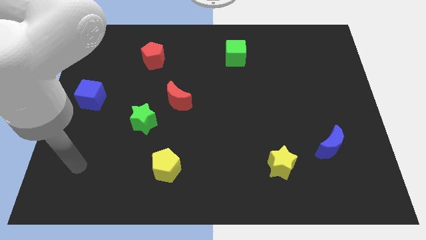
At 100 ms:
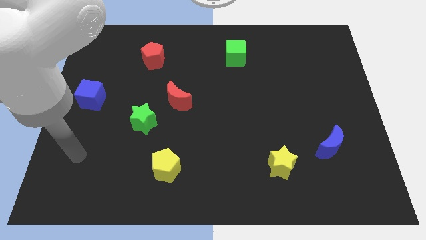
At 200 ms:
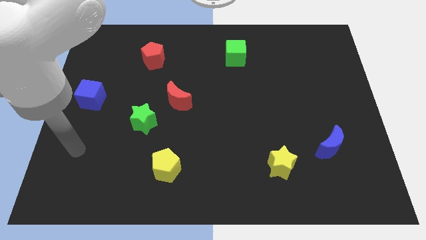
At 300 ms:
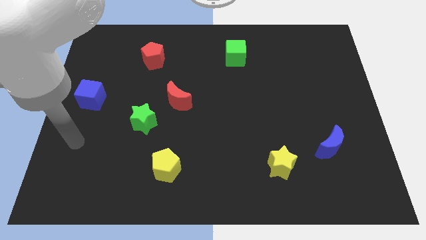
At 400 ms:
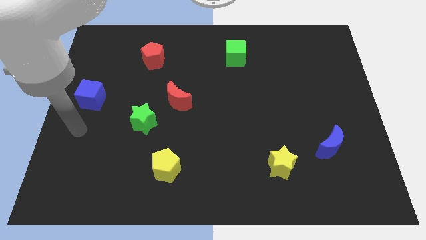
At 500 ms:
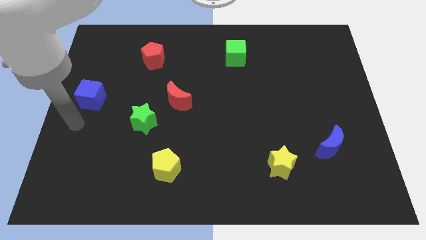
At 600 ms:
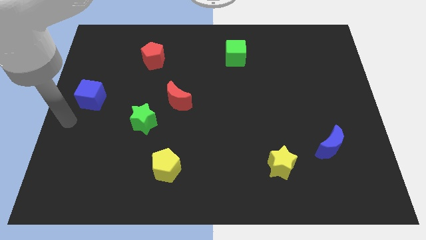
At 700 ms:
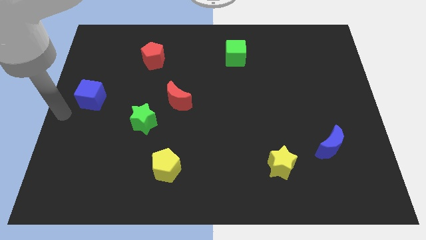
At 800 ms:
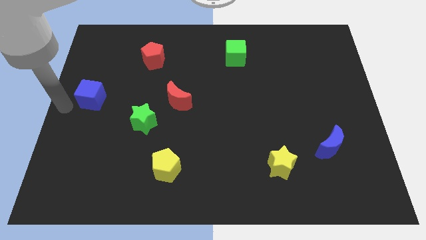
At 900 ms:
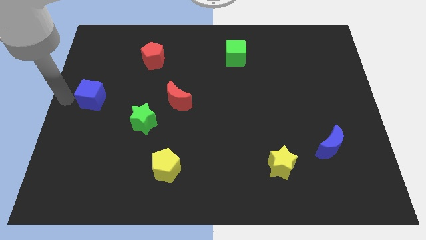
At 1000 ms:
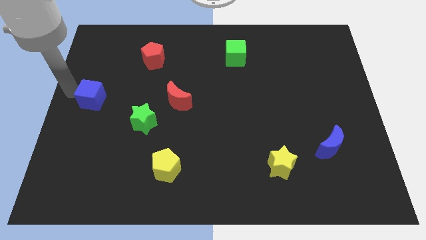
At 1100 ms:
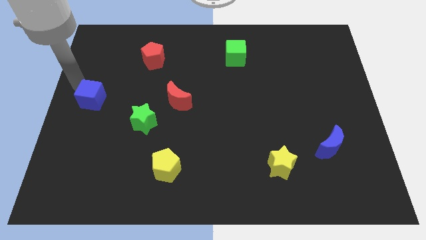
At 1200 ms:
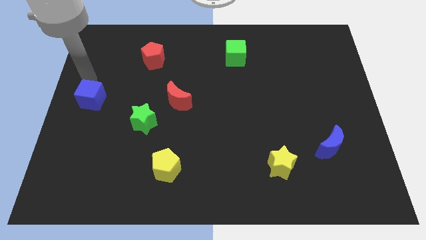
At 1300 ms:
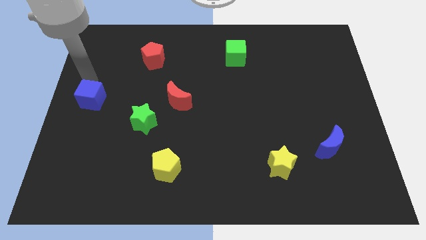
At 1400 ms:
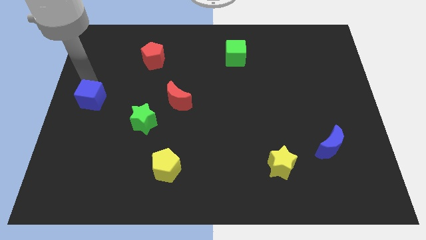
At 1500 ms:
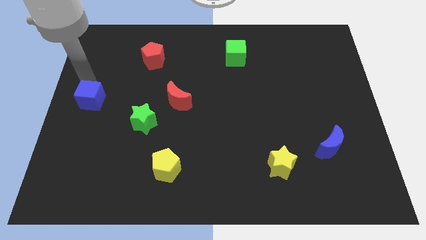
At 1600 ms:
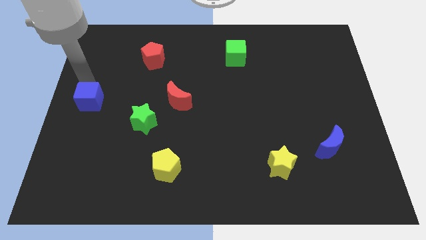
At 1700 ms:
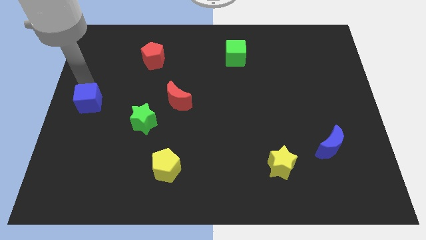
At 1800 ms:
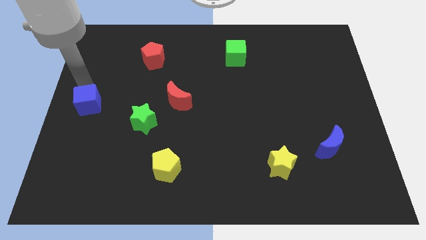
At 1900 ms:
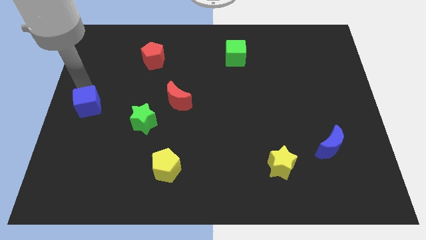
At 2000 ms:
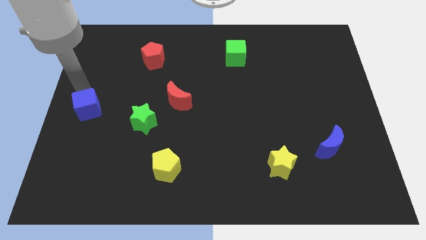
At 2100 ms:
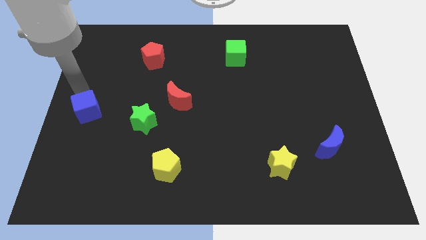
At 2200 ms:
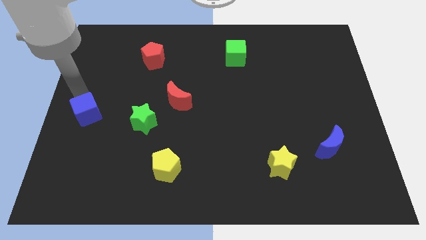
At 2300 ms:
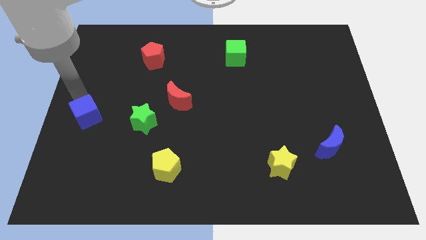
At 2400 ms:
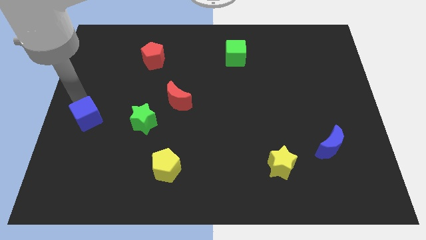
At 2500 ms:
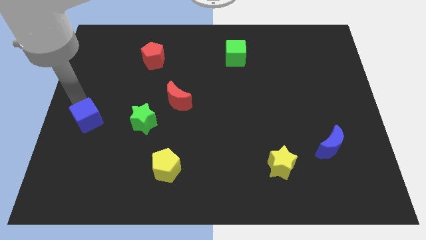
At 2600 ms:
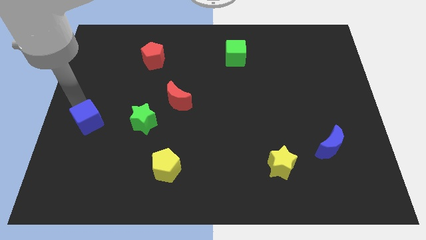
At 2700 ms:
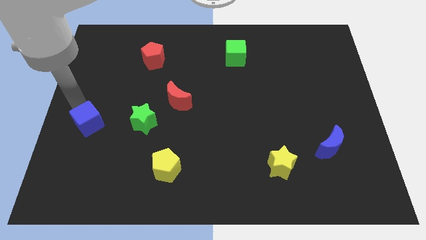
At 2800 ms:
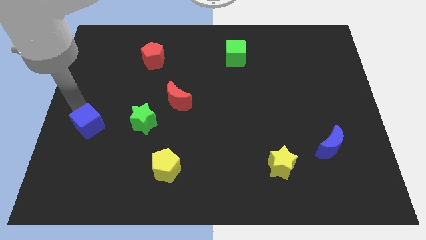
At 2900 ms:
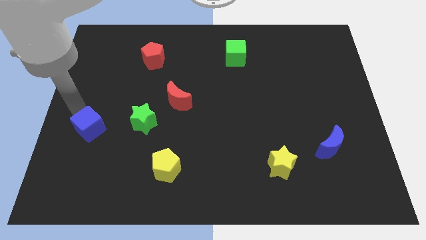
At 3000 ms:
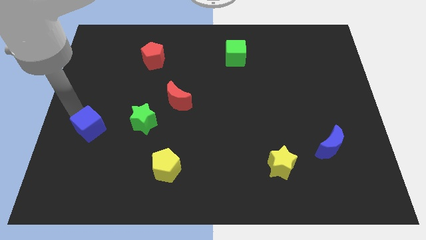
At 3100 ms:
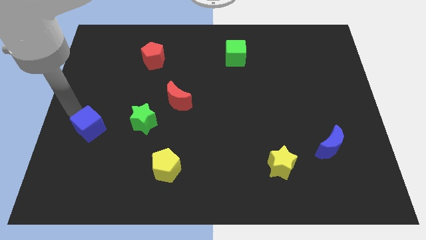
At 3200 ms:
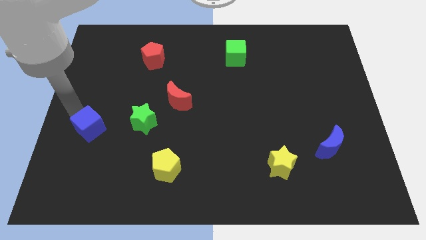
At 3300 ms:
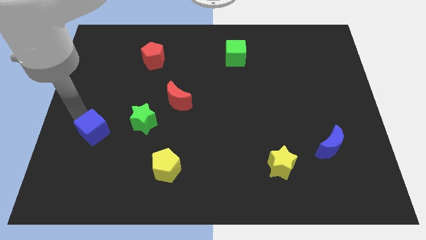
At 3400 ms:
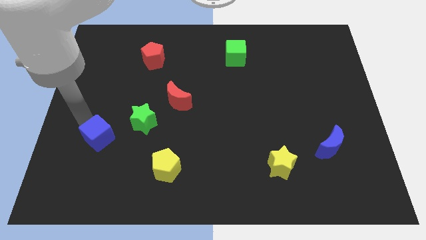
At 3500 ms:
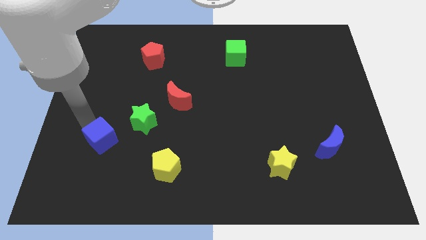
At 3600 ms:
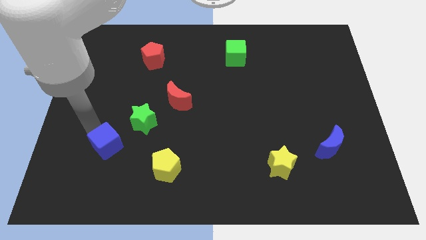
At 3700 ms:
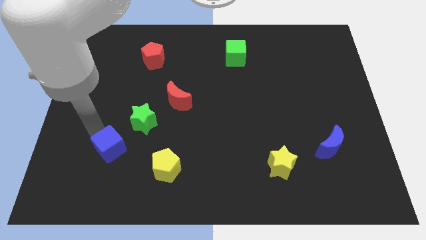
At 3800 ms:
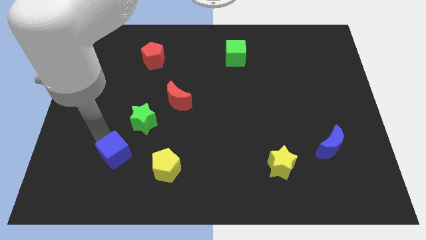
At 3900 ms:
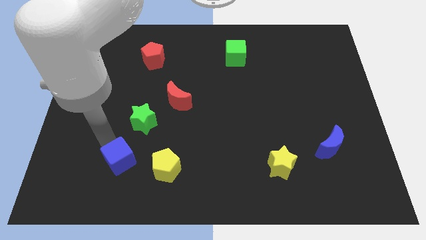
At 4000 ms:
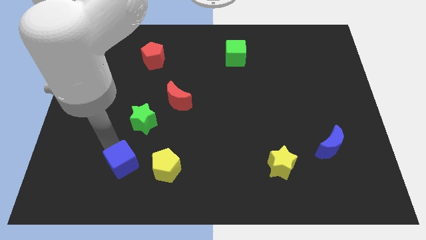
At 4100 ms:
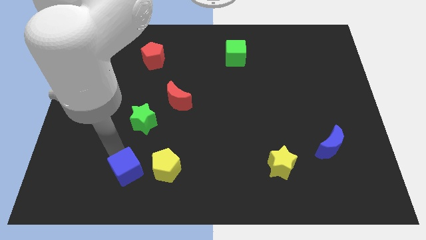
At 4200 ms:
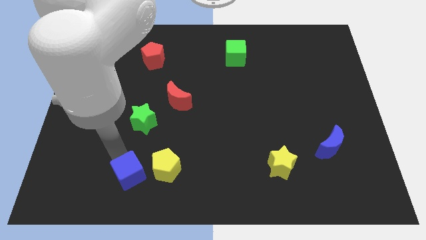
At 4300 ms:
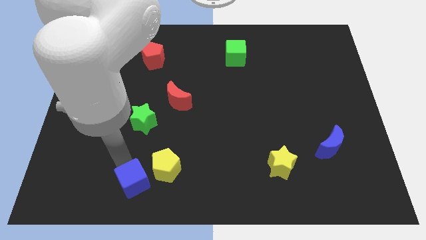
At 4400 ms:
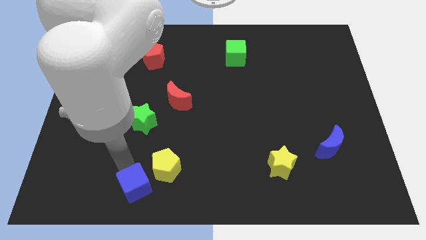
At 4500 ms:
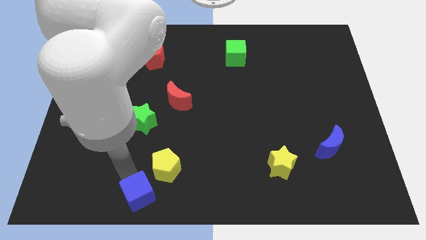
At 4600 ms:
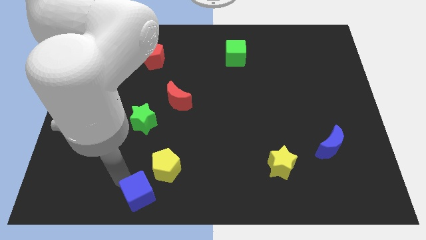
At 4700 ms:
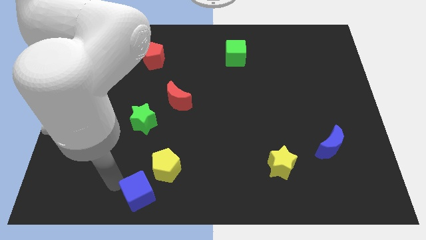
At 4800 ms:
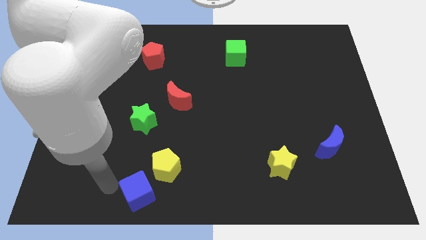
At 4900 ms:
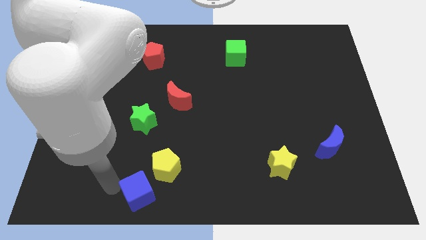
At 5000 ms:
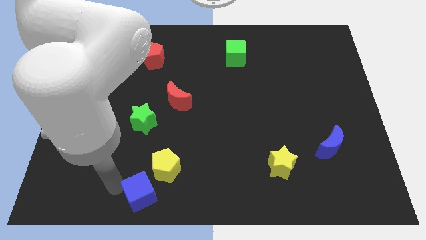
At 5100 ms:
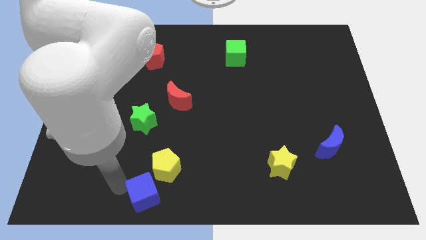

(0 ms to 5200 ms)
move the blue cube to the bottom side

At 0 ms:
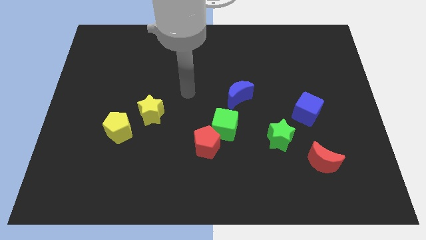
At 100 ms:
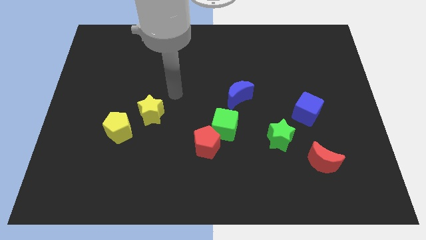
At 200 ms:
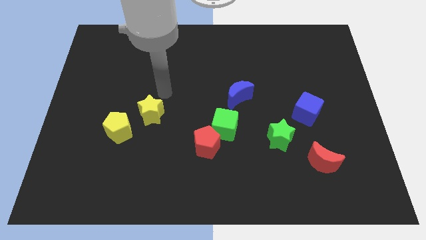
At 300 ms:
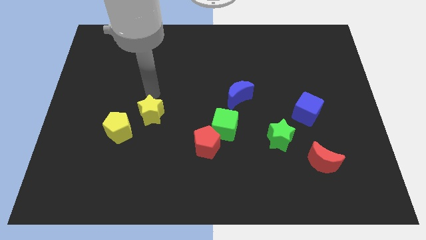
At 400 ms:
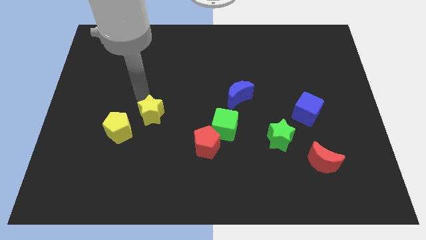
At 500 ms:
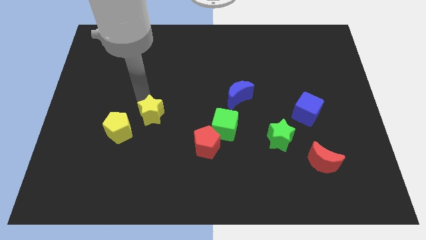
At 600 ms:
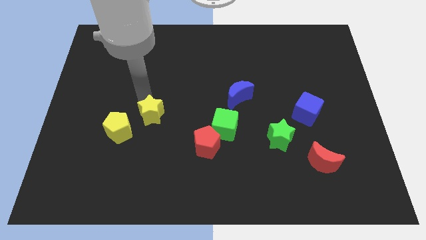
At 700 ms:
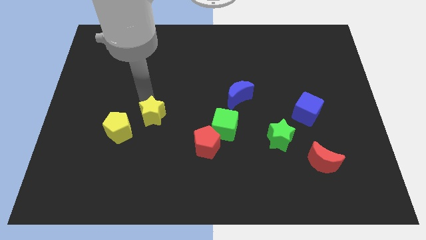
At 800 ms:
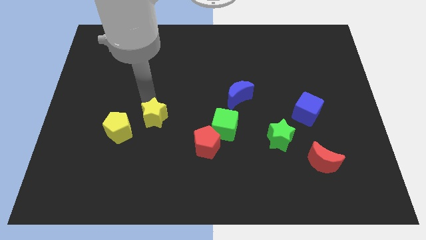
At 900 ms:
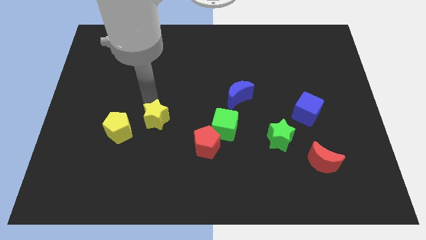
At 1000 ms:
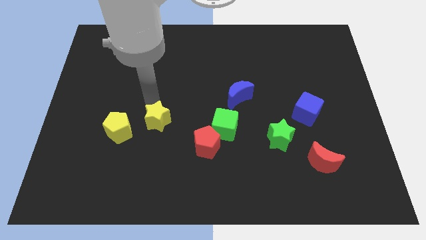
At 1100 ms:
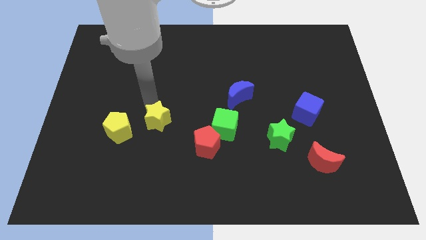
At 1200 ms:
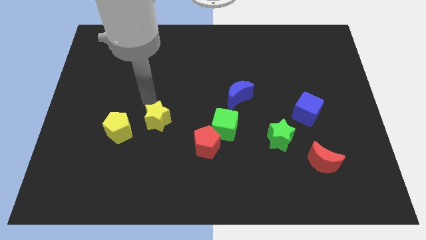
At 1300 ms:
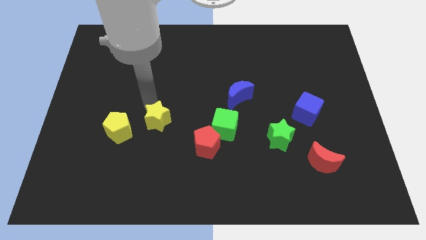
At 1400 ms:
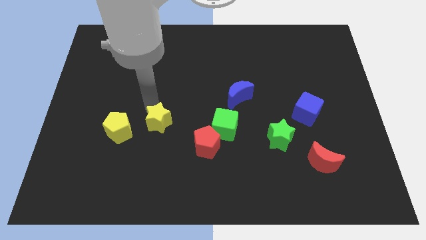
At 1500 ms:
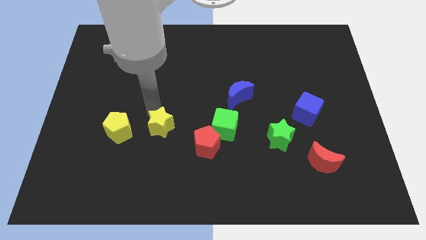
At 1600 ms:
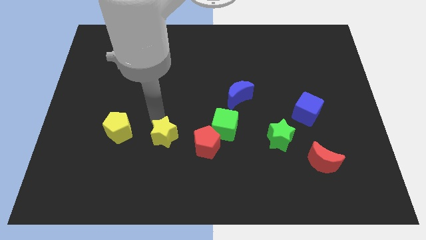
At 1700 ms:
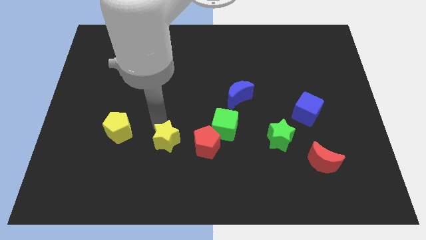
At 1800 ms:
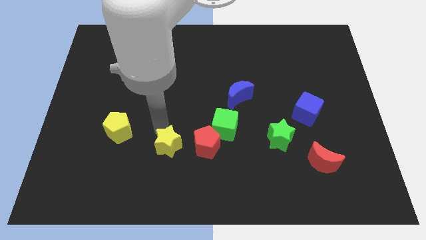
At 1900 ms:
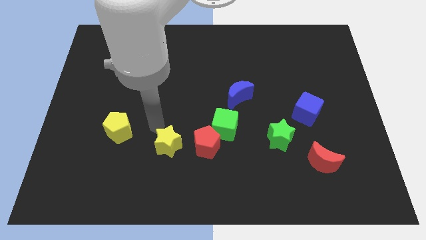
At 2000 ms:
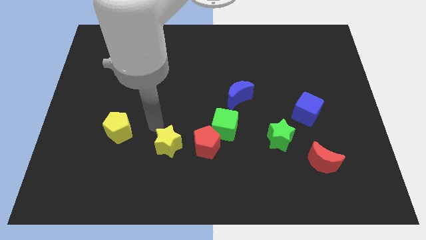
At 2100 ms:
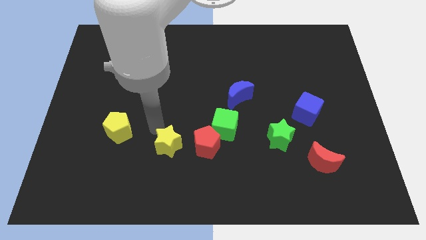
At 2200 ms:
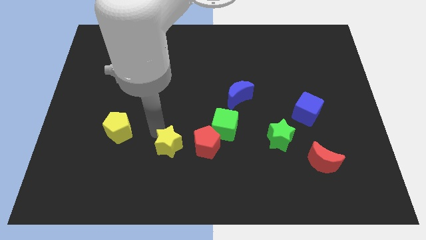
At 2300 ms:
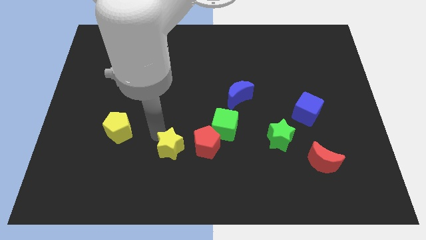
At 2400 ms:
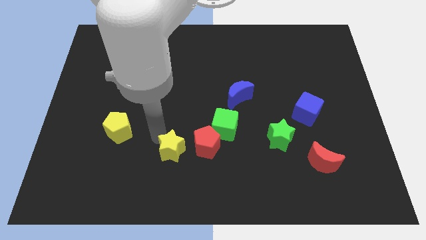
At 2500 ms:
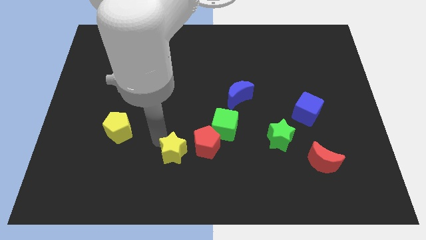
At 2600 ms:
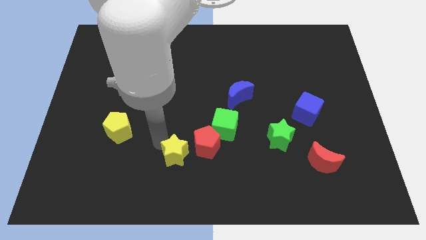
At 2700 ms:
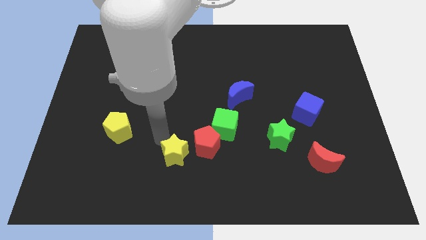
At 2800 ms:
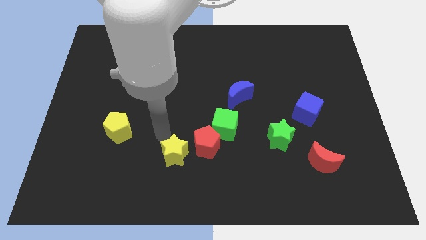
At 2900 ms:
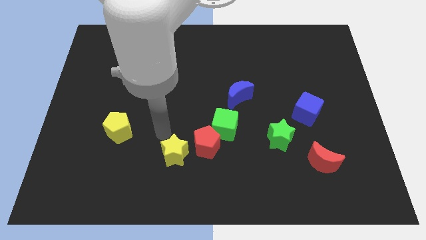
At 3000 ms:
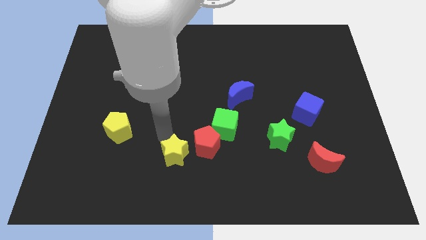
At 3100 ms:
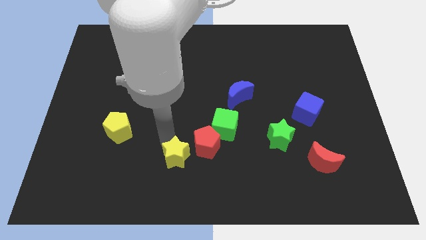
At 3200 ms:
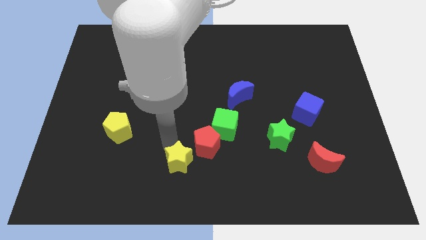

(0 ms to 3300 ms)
move the yellow star to the bottom
